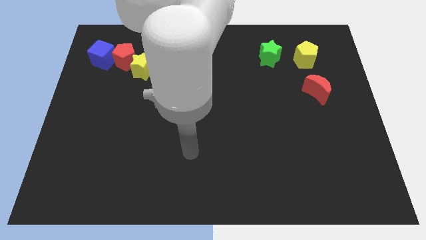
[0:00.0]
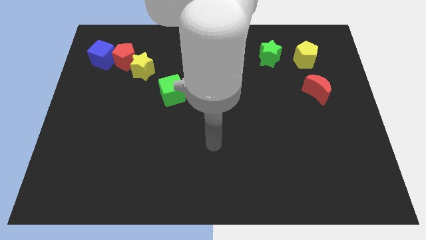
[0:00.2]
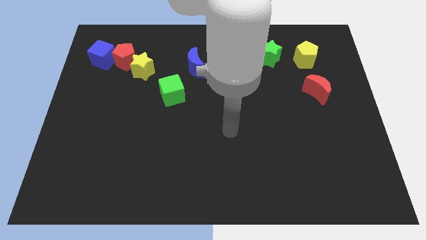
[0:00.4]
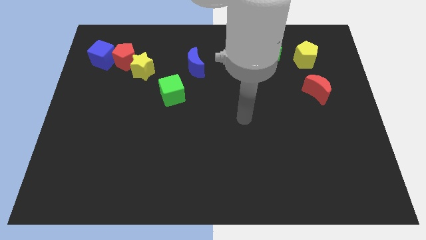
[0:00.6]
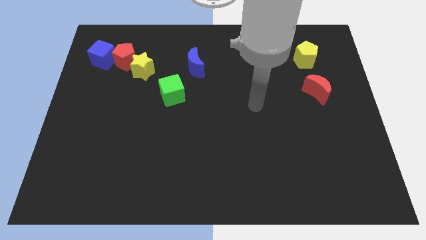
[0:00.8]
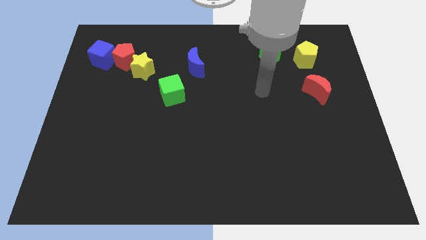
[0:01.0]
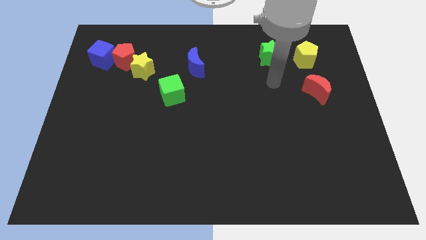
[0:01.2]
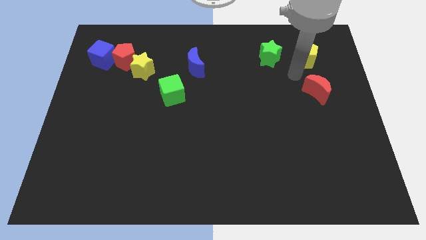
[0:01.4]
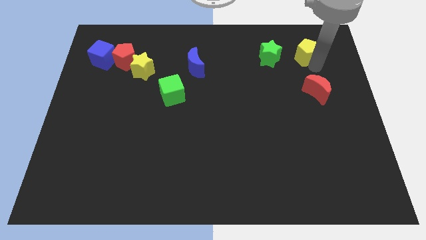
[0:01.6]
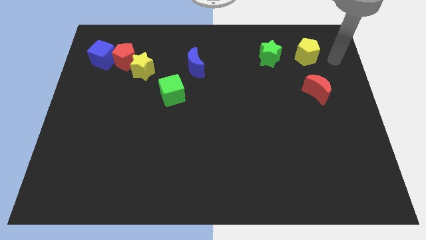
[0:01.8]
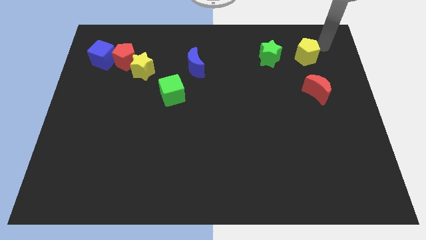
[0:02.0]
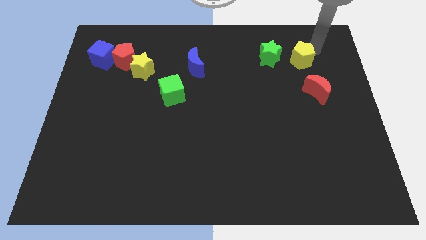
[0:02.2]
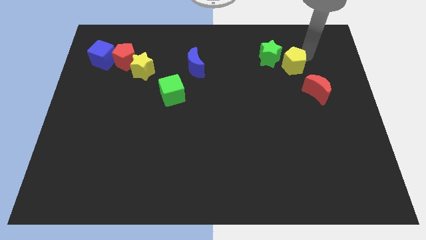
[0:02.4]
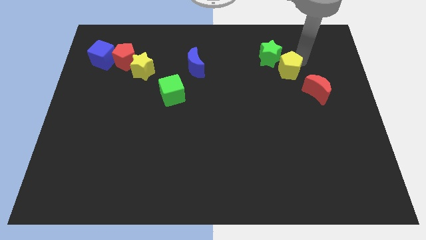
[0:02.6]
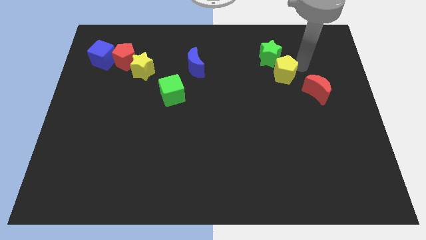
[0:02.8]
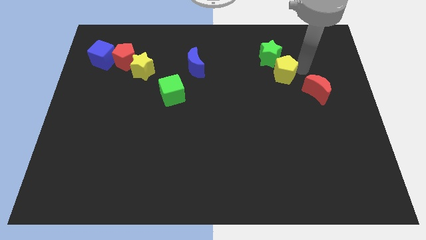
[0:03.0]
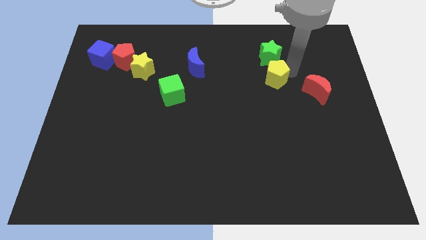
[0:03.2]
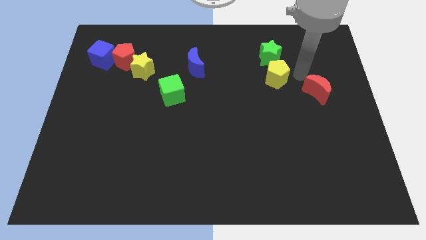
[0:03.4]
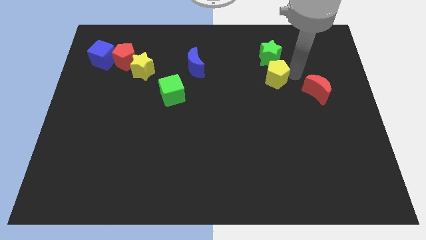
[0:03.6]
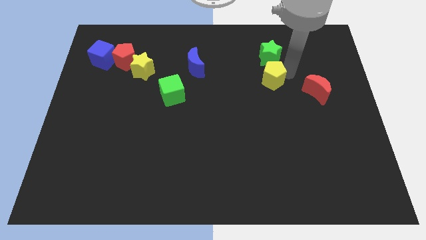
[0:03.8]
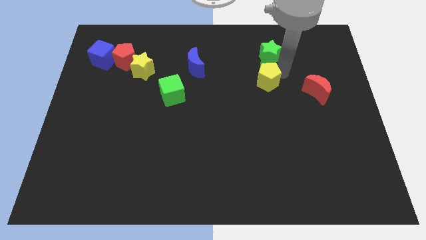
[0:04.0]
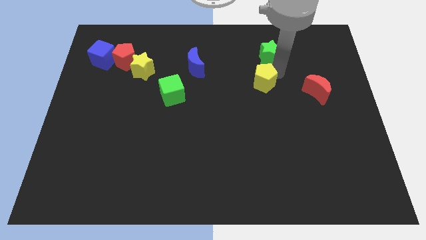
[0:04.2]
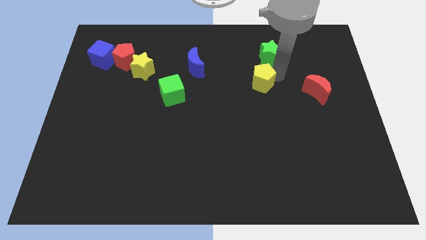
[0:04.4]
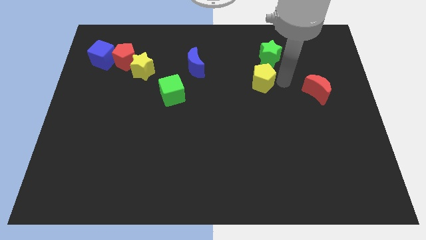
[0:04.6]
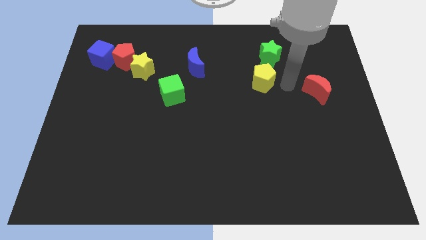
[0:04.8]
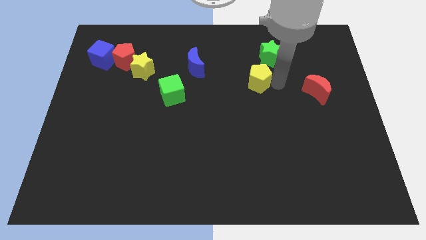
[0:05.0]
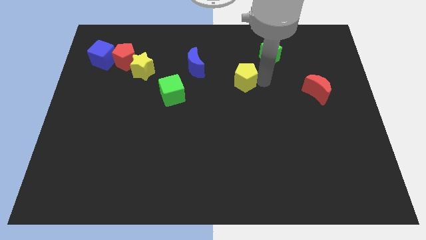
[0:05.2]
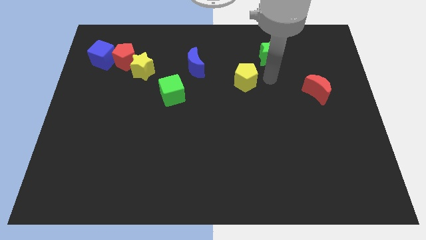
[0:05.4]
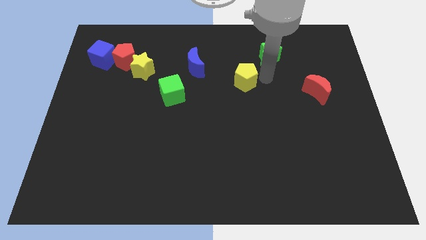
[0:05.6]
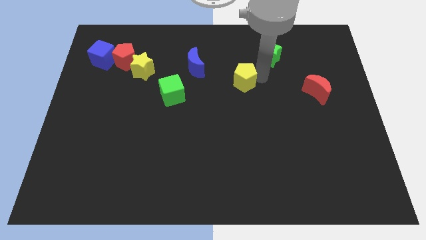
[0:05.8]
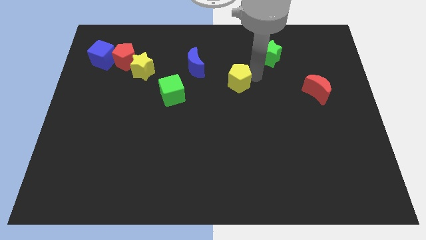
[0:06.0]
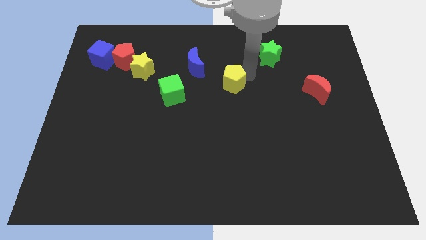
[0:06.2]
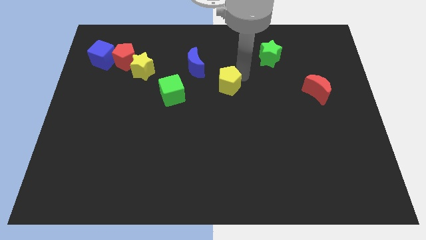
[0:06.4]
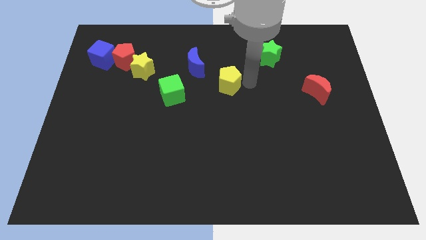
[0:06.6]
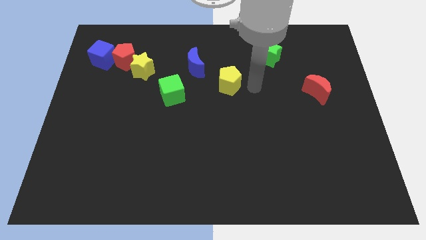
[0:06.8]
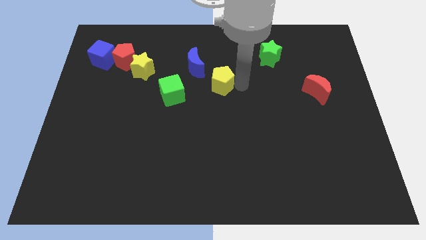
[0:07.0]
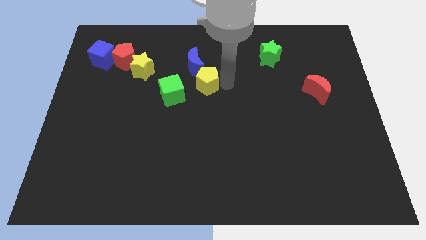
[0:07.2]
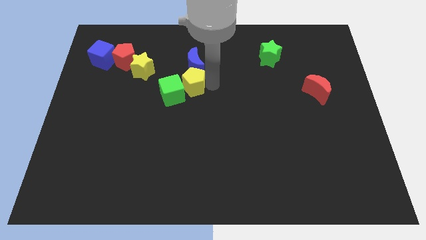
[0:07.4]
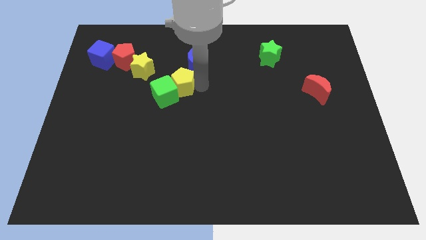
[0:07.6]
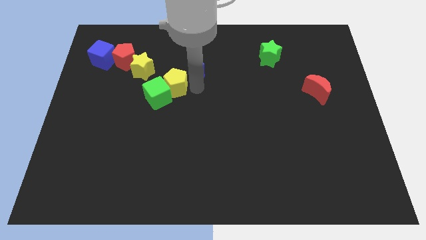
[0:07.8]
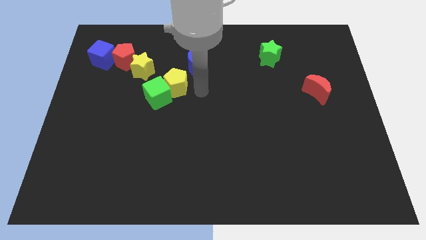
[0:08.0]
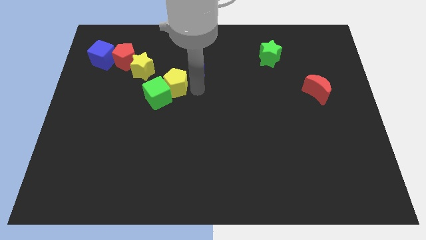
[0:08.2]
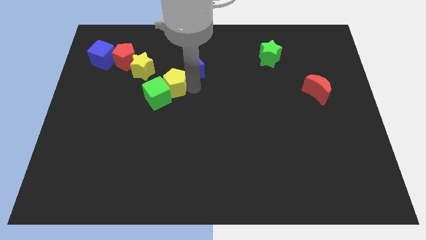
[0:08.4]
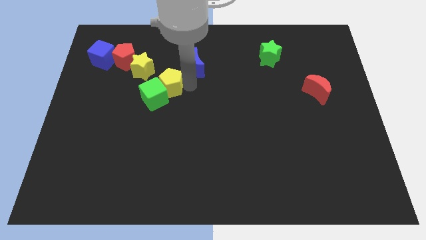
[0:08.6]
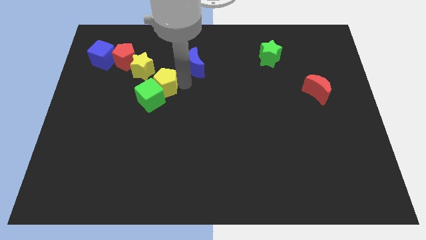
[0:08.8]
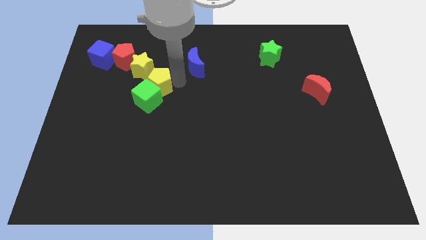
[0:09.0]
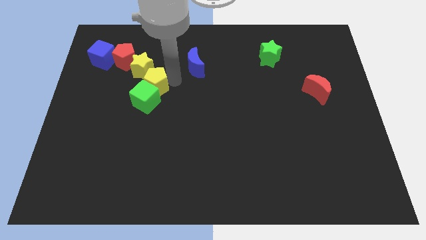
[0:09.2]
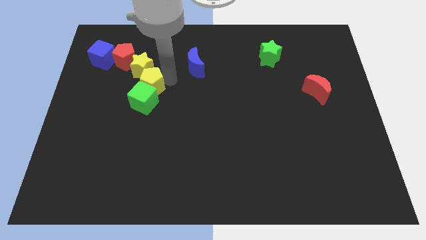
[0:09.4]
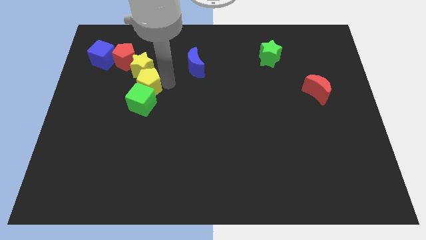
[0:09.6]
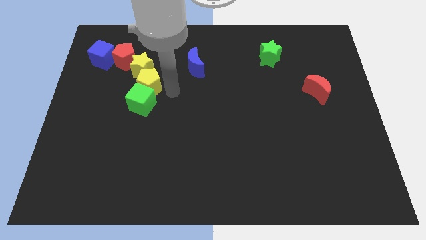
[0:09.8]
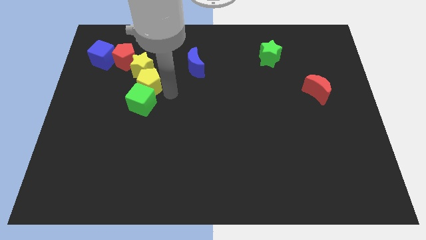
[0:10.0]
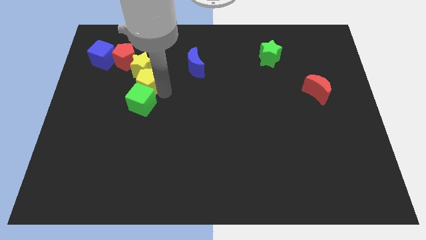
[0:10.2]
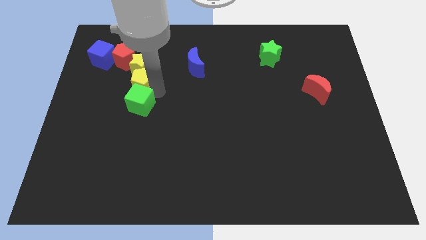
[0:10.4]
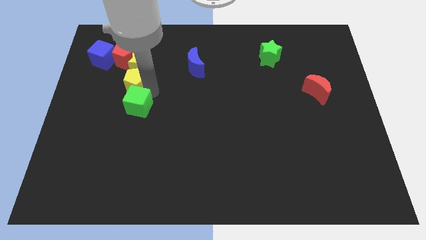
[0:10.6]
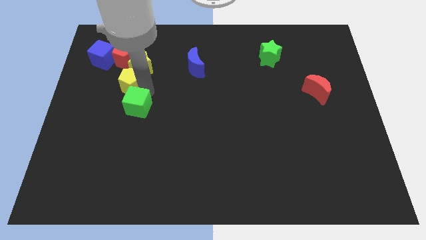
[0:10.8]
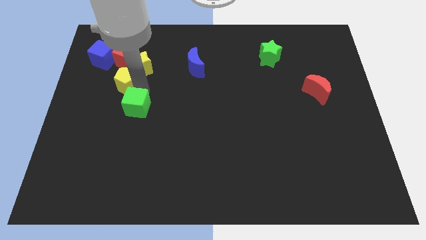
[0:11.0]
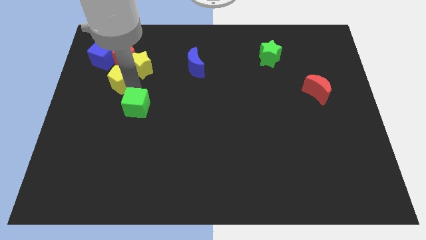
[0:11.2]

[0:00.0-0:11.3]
slide the yellow pentagon left of the yellow star

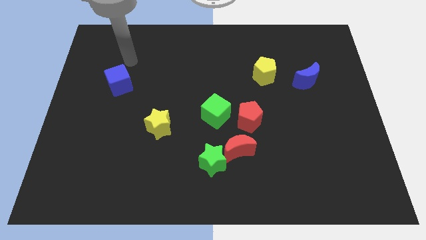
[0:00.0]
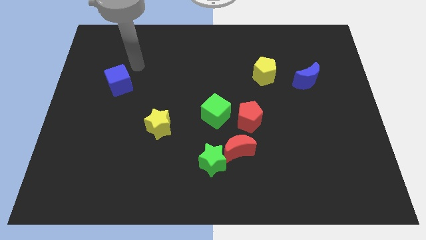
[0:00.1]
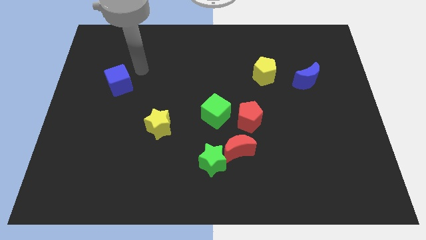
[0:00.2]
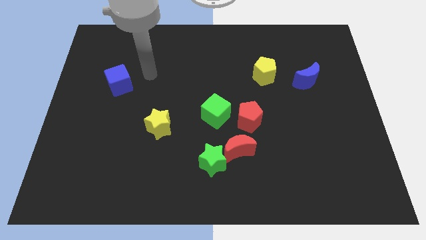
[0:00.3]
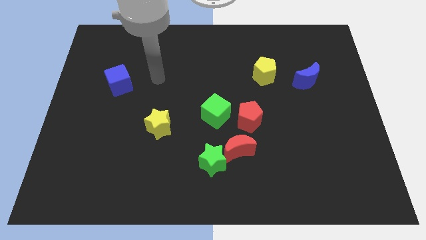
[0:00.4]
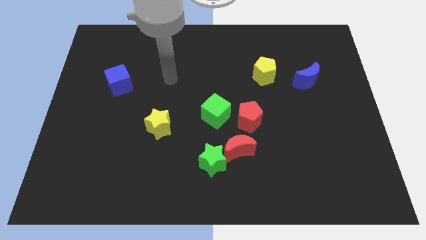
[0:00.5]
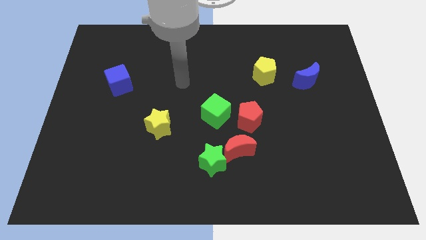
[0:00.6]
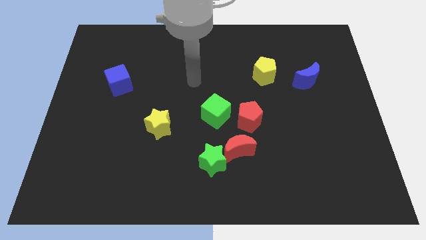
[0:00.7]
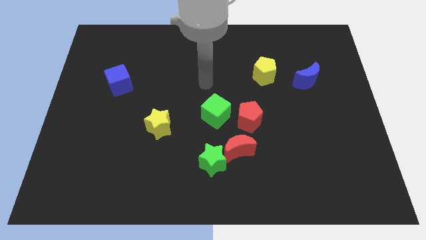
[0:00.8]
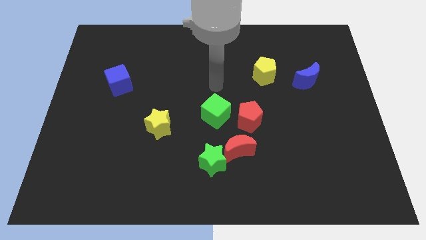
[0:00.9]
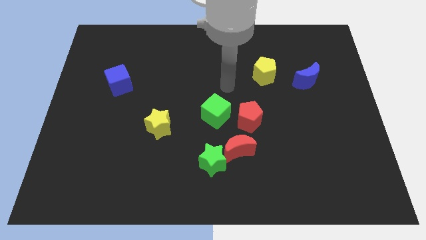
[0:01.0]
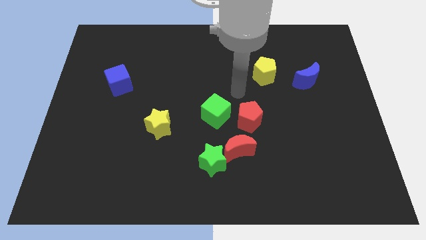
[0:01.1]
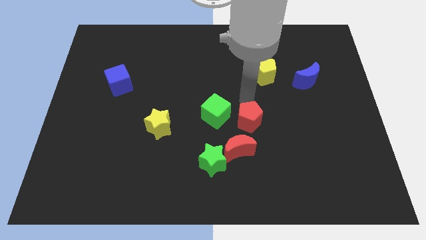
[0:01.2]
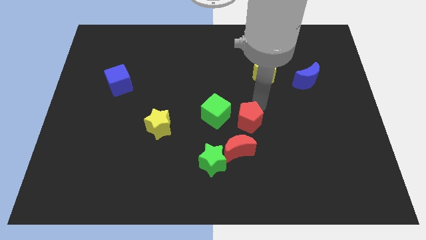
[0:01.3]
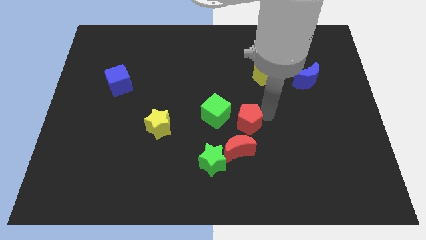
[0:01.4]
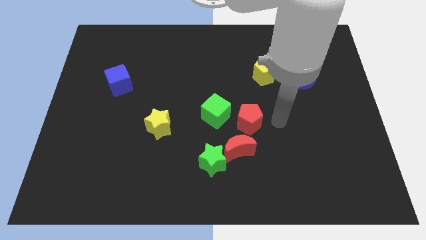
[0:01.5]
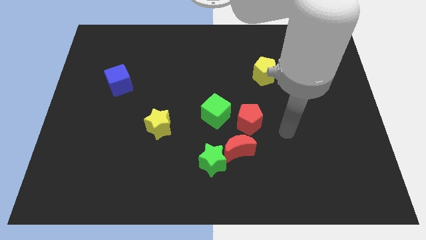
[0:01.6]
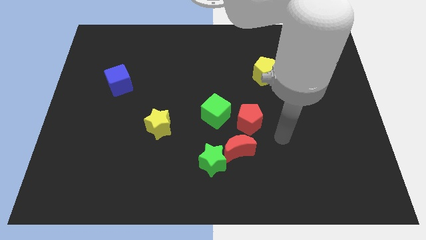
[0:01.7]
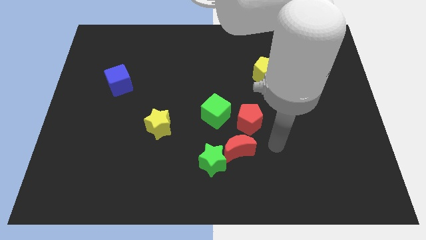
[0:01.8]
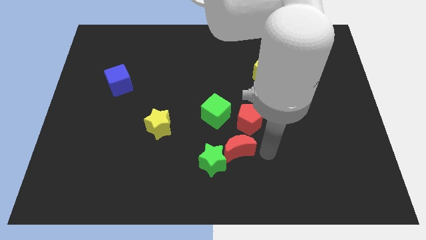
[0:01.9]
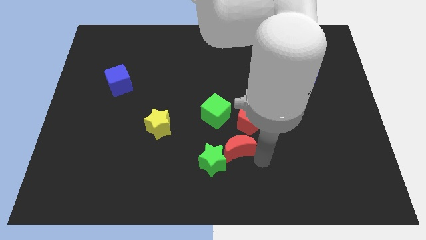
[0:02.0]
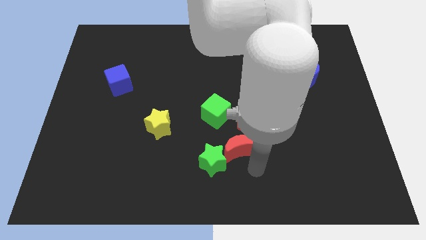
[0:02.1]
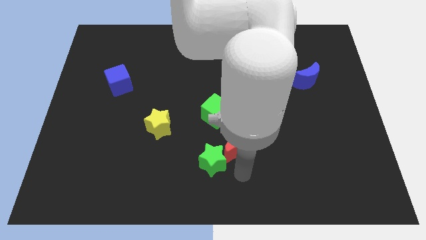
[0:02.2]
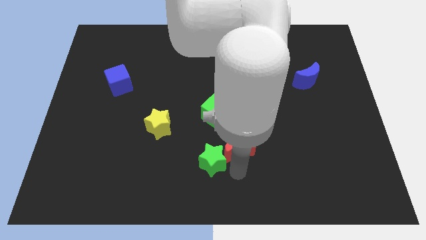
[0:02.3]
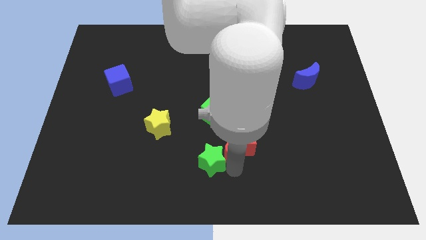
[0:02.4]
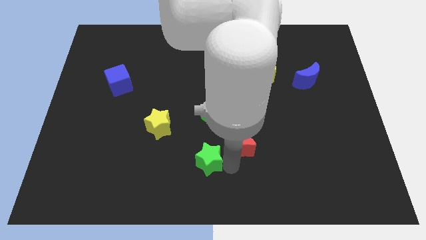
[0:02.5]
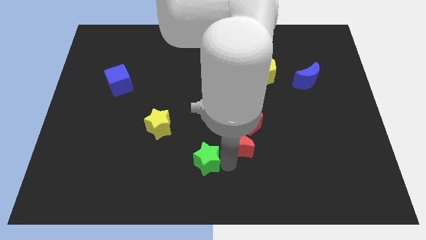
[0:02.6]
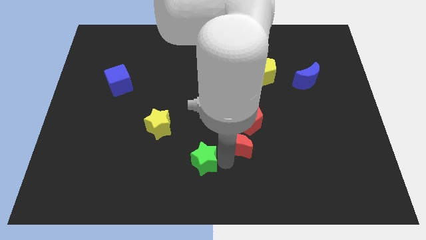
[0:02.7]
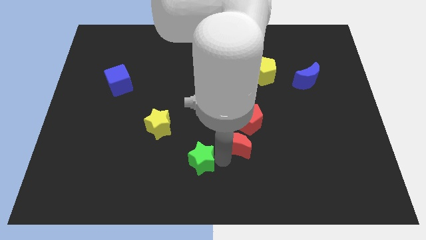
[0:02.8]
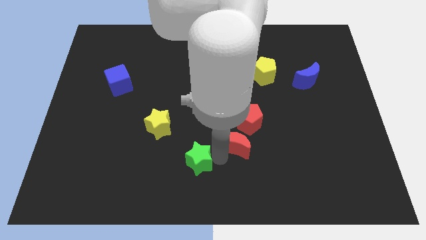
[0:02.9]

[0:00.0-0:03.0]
move the green star diagonally down and to the right of the yellow star
